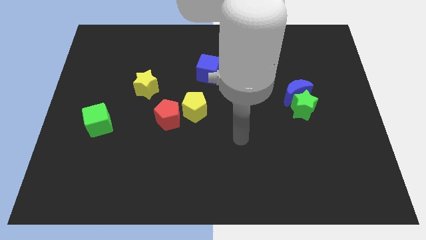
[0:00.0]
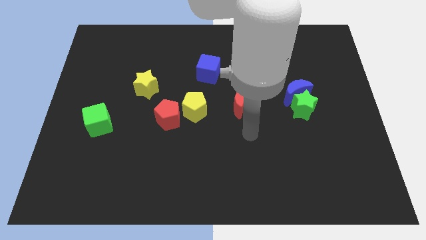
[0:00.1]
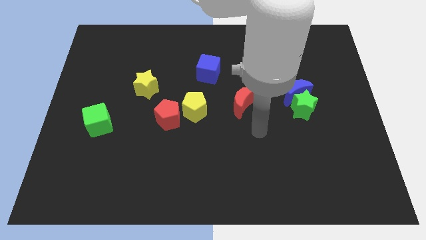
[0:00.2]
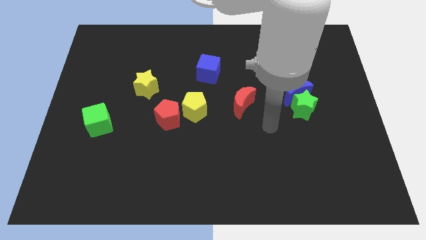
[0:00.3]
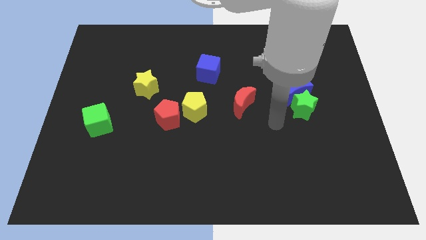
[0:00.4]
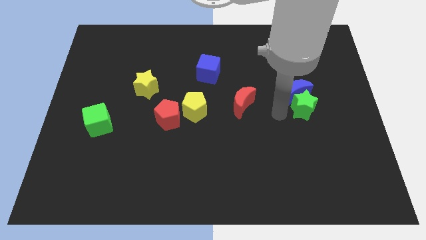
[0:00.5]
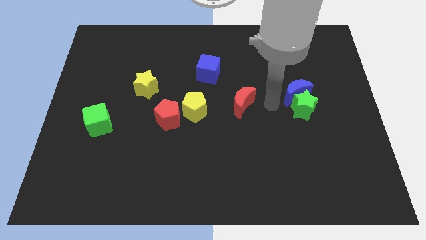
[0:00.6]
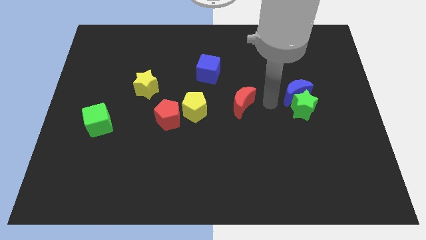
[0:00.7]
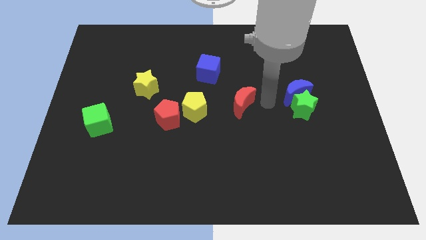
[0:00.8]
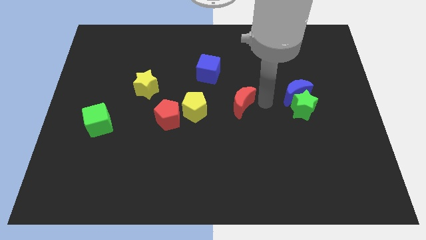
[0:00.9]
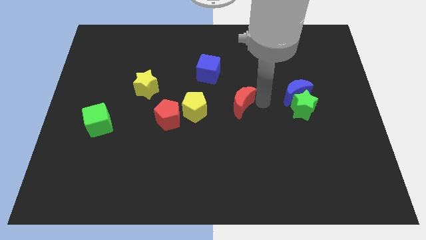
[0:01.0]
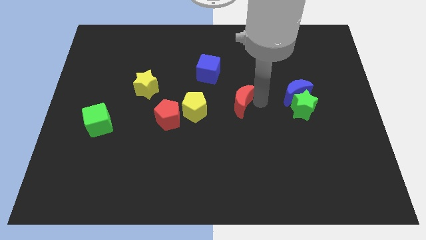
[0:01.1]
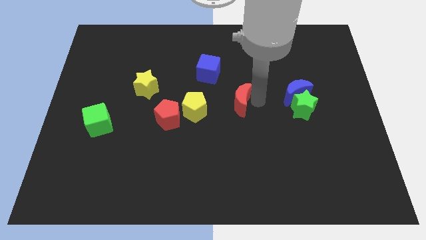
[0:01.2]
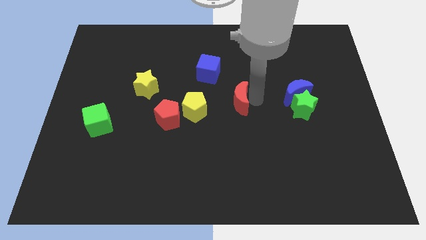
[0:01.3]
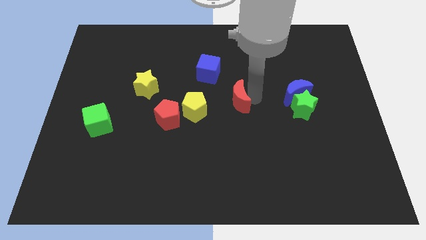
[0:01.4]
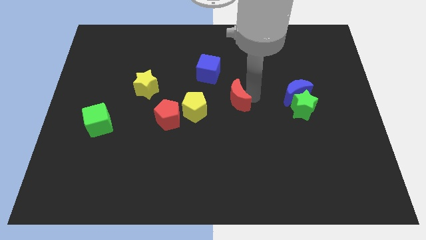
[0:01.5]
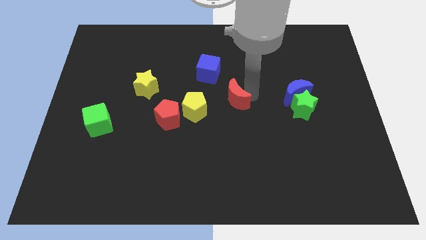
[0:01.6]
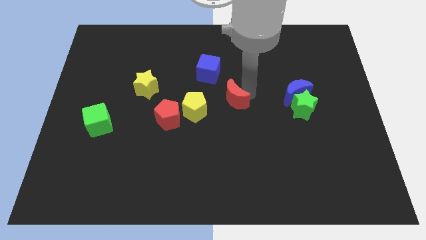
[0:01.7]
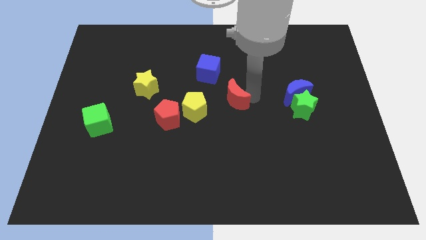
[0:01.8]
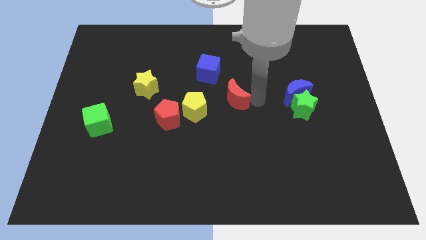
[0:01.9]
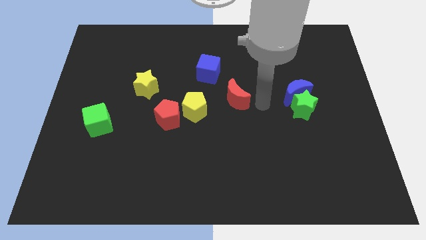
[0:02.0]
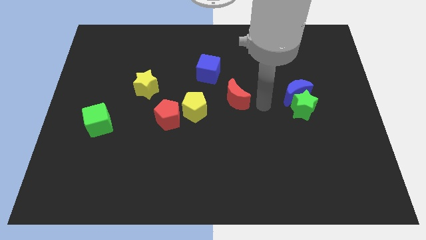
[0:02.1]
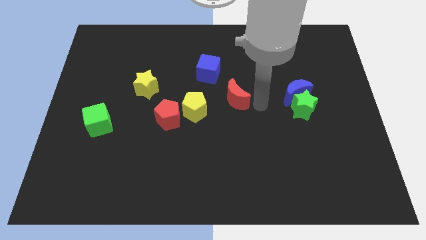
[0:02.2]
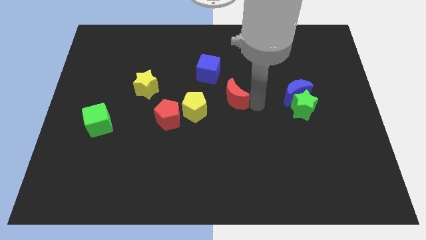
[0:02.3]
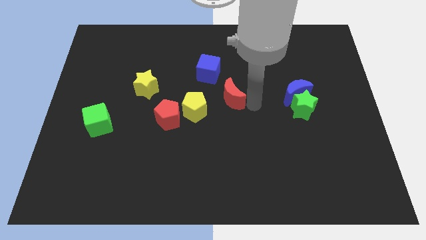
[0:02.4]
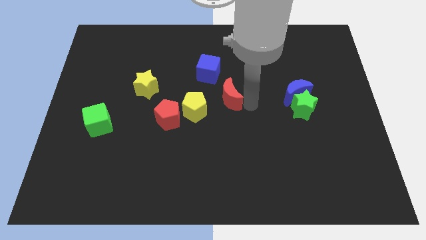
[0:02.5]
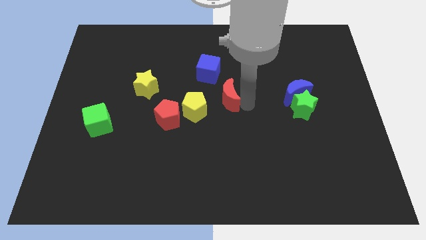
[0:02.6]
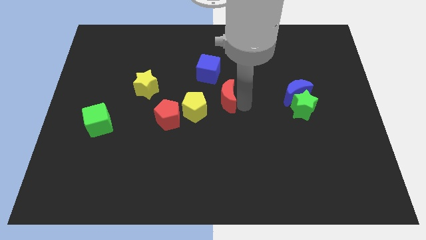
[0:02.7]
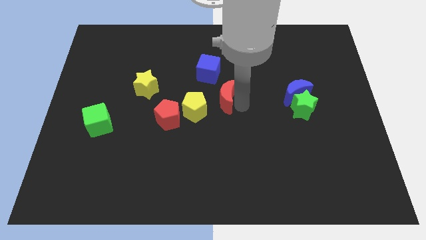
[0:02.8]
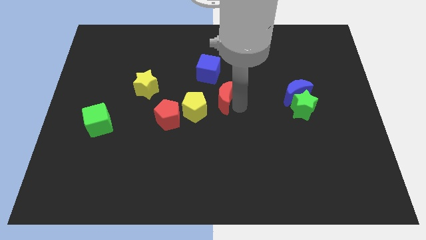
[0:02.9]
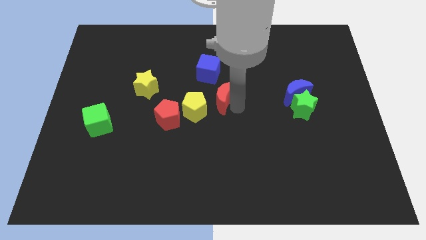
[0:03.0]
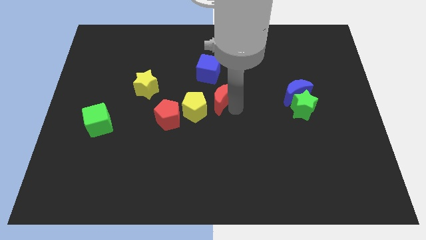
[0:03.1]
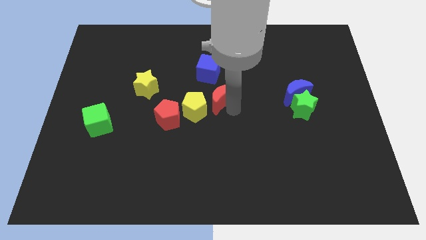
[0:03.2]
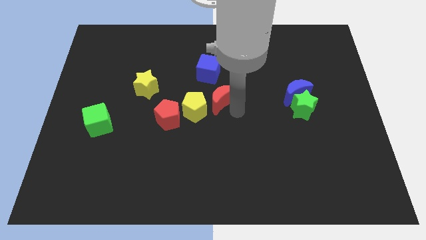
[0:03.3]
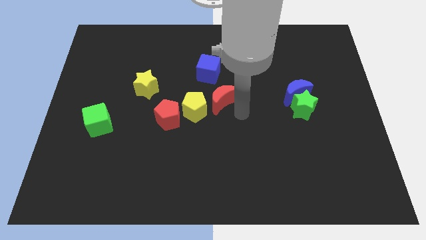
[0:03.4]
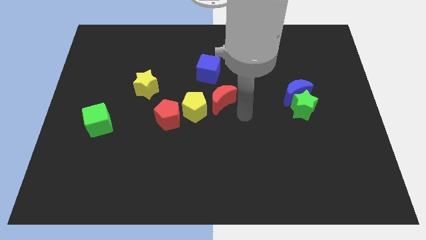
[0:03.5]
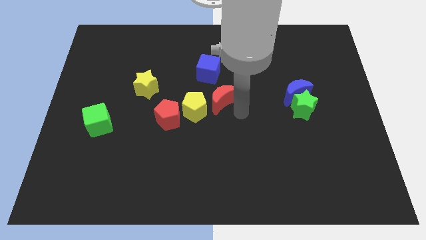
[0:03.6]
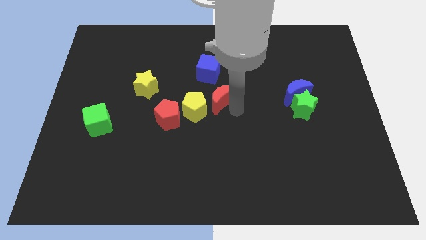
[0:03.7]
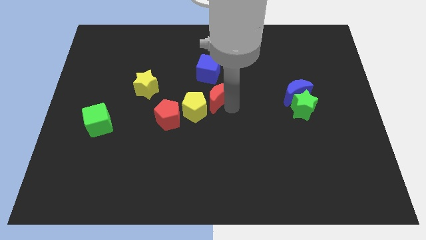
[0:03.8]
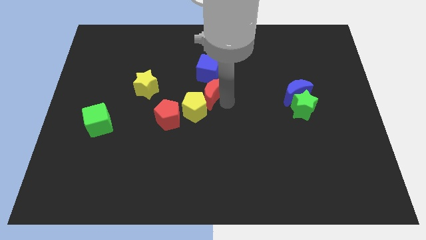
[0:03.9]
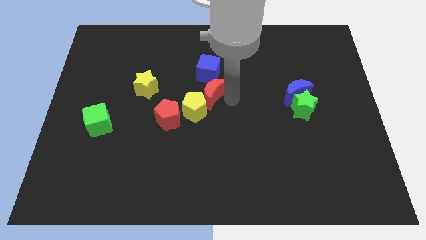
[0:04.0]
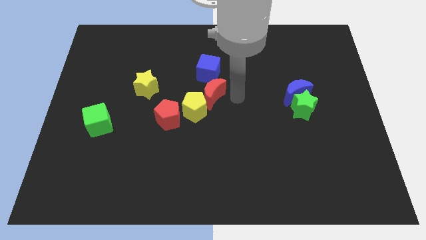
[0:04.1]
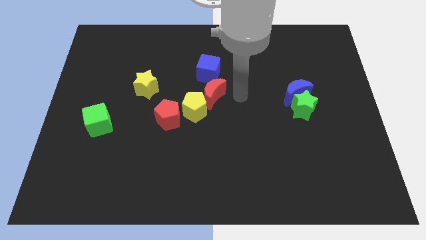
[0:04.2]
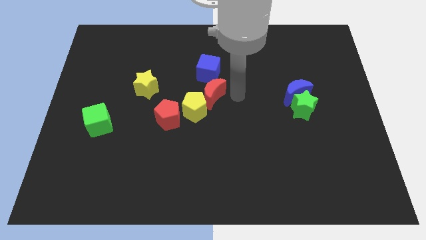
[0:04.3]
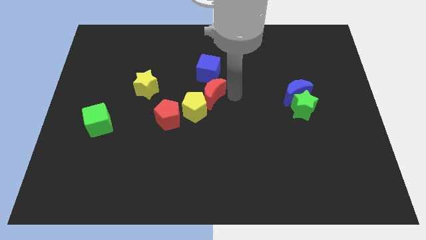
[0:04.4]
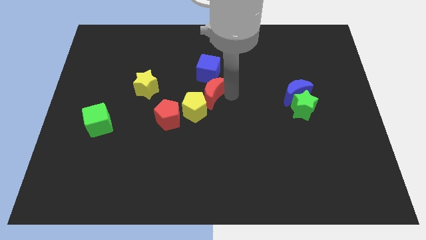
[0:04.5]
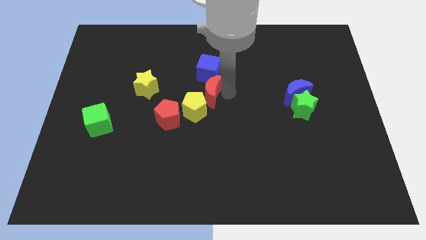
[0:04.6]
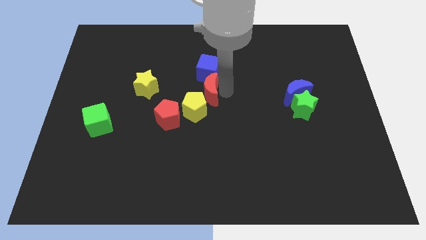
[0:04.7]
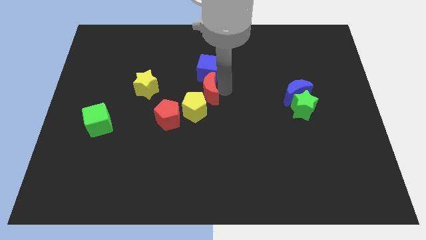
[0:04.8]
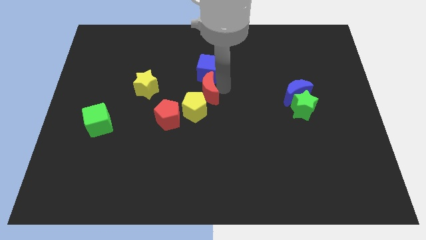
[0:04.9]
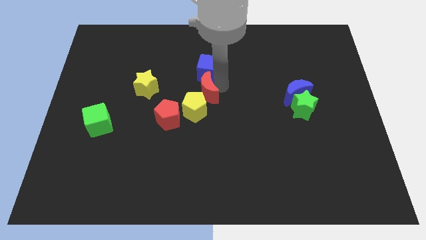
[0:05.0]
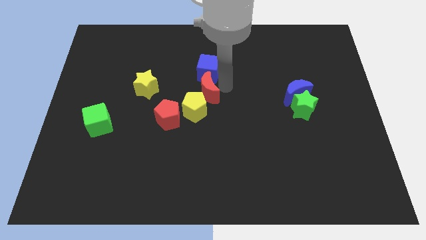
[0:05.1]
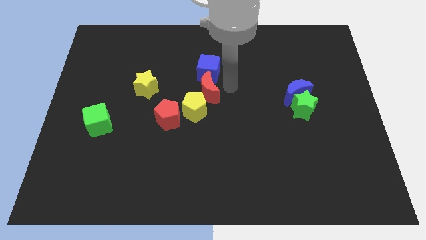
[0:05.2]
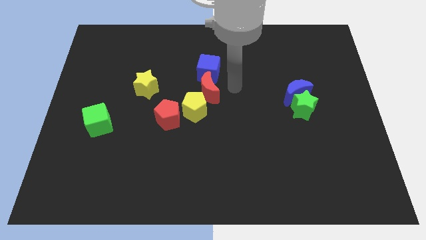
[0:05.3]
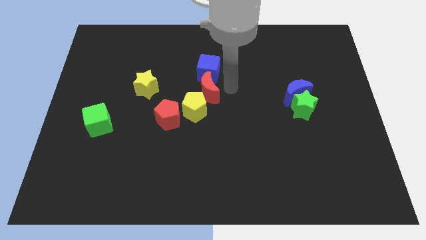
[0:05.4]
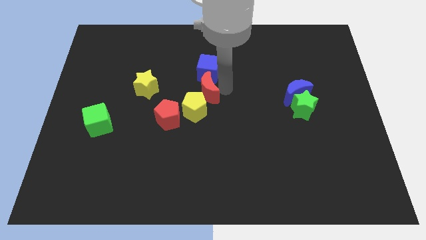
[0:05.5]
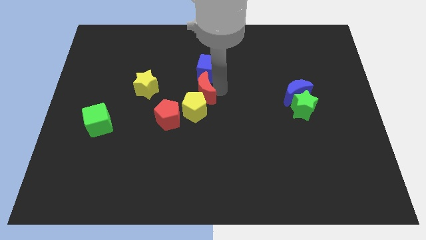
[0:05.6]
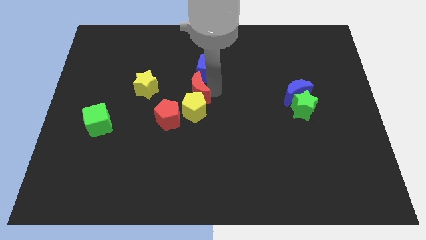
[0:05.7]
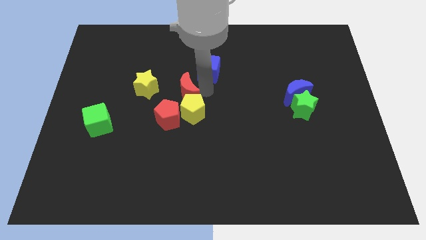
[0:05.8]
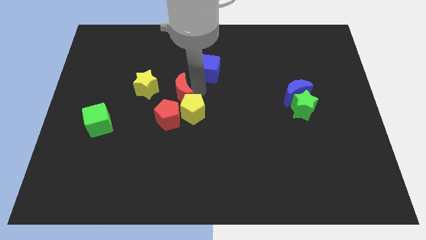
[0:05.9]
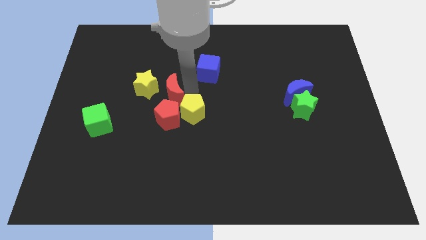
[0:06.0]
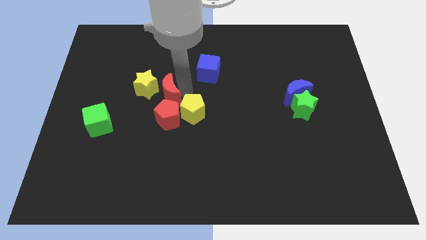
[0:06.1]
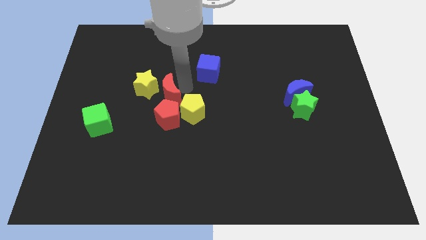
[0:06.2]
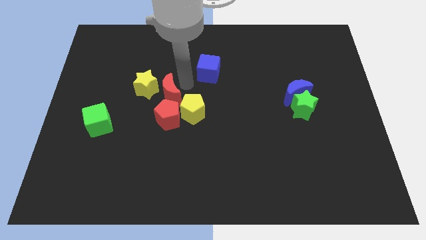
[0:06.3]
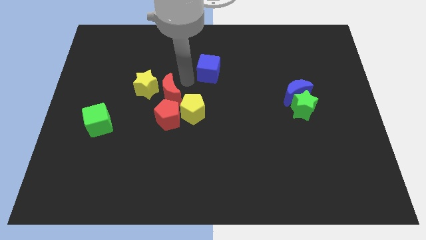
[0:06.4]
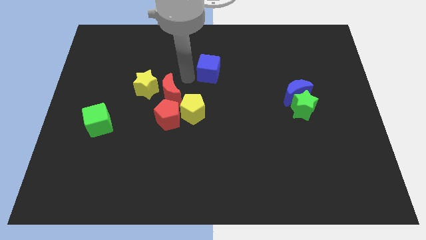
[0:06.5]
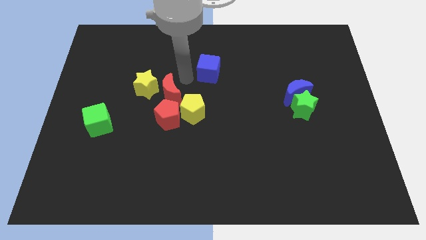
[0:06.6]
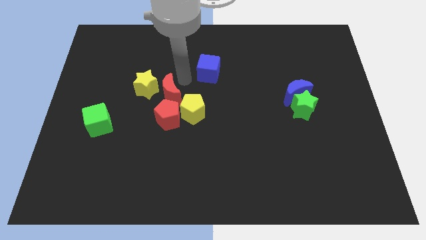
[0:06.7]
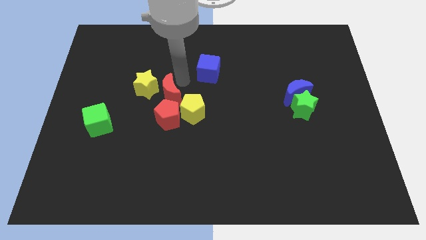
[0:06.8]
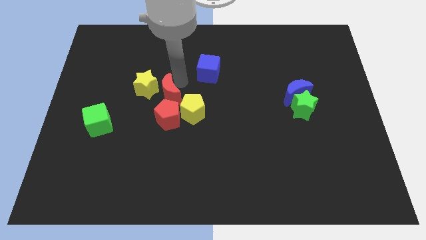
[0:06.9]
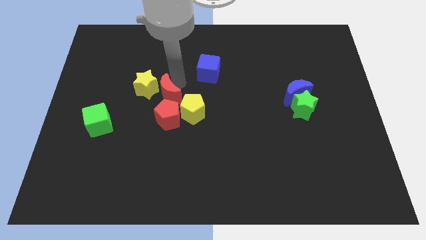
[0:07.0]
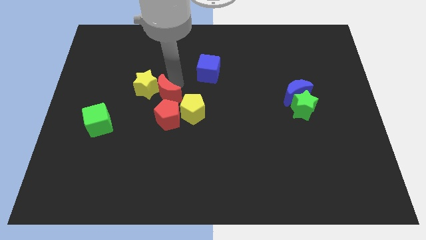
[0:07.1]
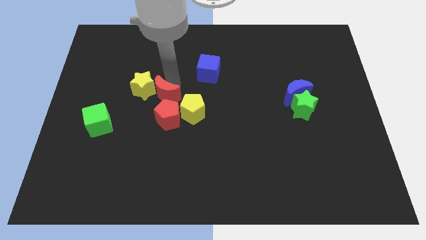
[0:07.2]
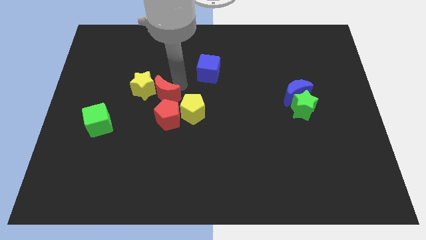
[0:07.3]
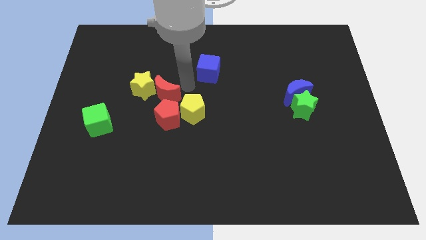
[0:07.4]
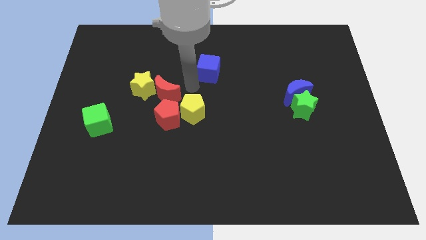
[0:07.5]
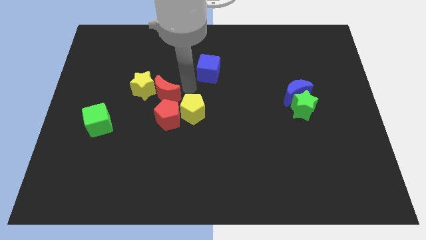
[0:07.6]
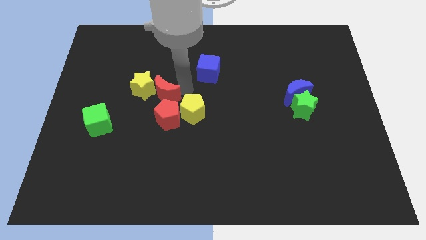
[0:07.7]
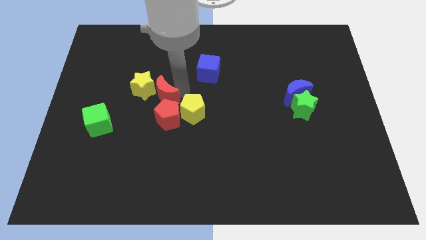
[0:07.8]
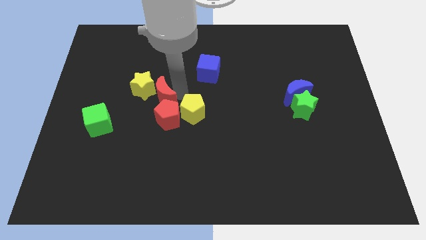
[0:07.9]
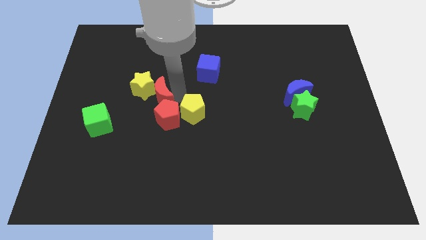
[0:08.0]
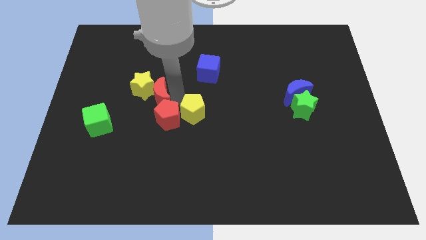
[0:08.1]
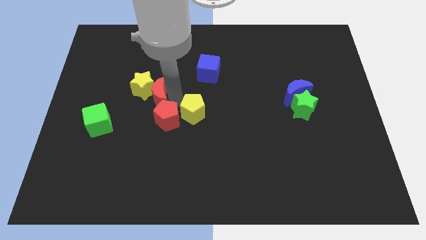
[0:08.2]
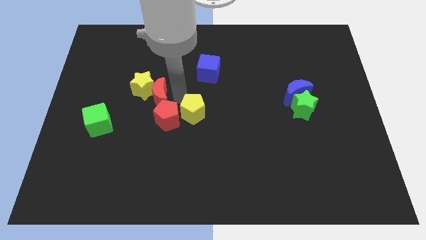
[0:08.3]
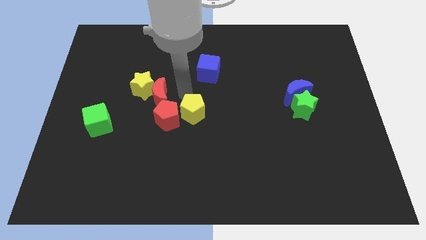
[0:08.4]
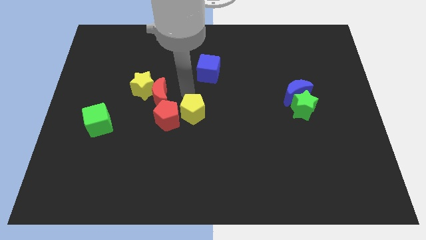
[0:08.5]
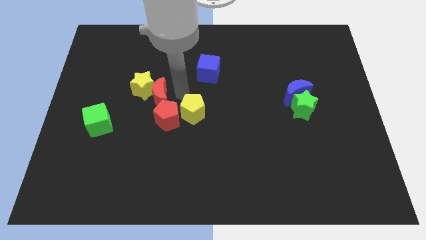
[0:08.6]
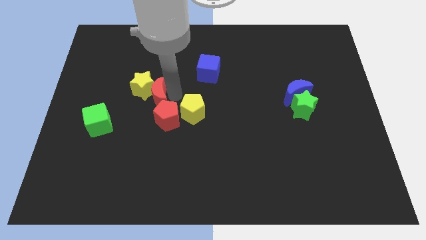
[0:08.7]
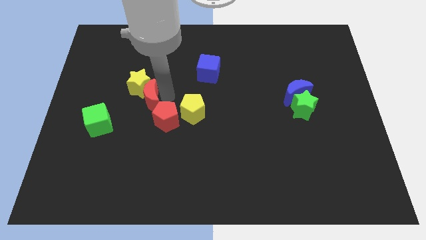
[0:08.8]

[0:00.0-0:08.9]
push the red moon to the left
